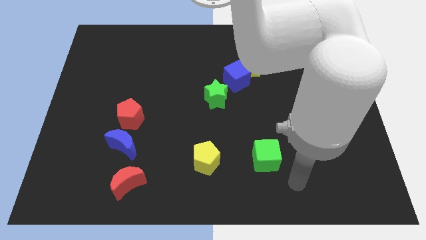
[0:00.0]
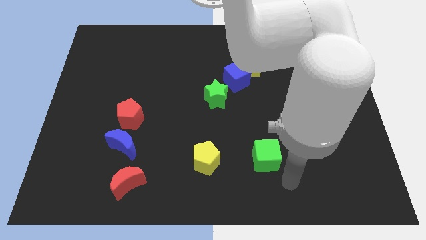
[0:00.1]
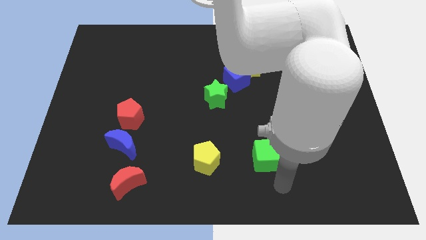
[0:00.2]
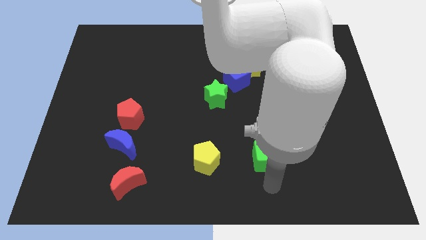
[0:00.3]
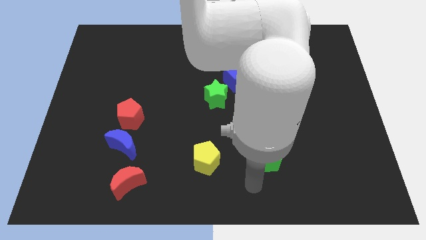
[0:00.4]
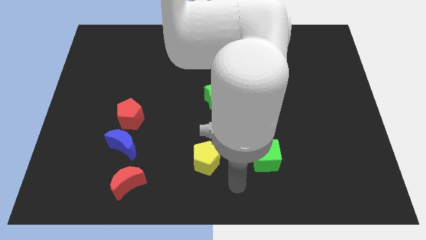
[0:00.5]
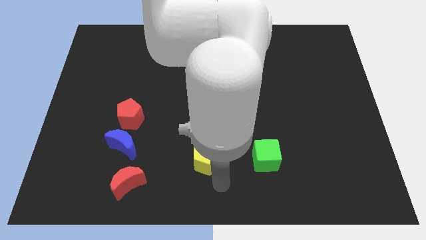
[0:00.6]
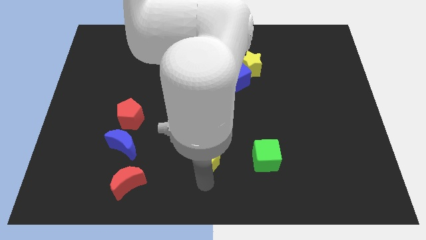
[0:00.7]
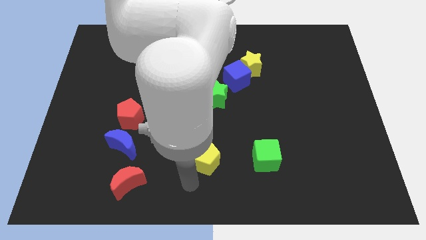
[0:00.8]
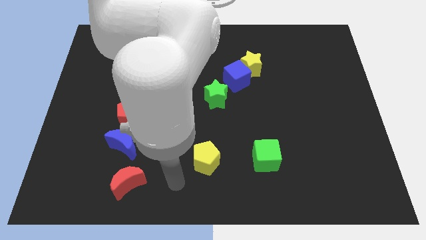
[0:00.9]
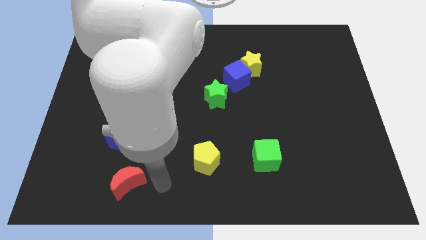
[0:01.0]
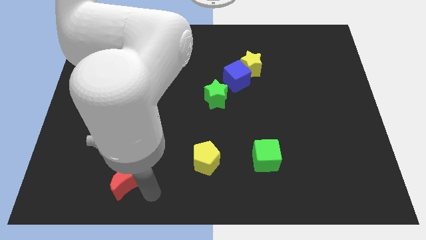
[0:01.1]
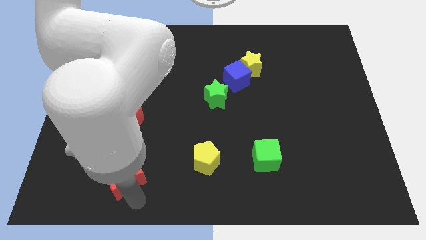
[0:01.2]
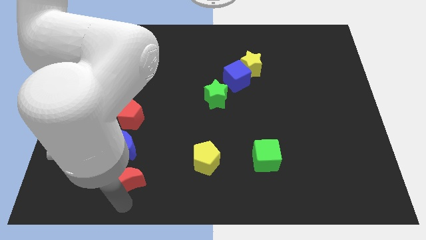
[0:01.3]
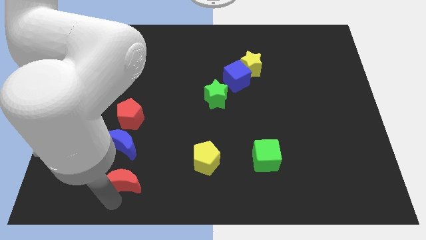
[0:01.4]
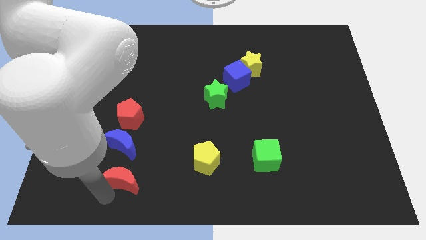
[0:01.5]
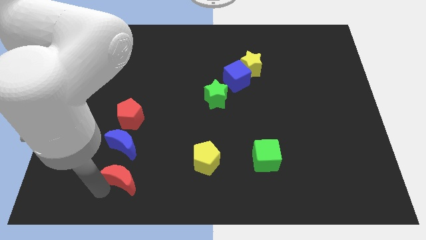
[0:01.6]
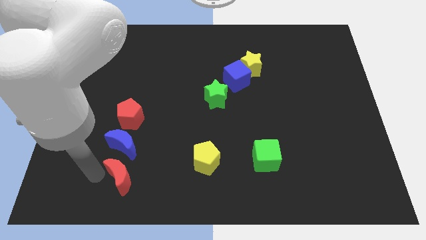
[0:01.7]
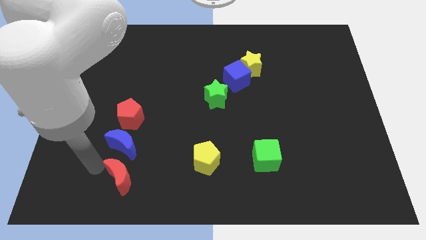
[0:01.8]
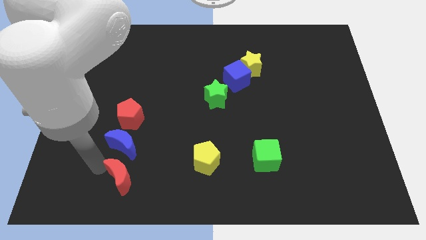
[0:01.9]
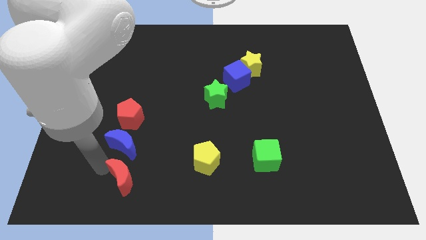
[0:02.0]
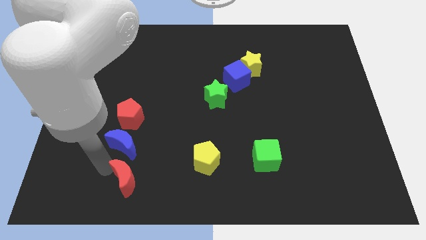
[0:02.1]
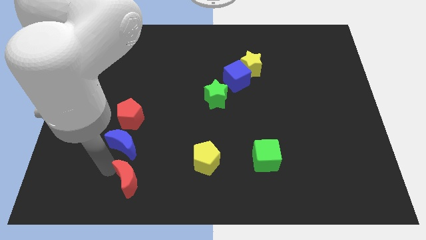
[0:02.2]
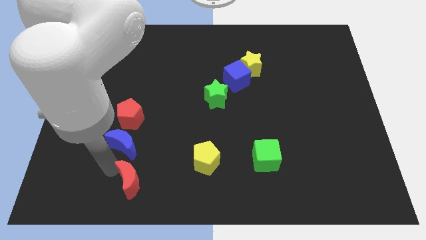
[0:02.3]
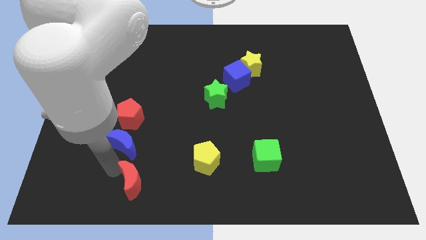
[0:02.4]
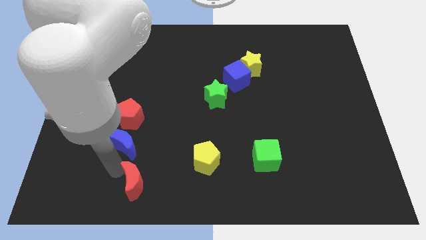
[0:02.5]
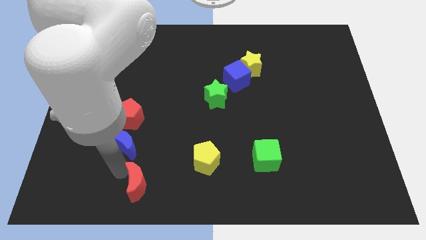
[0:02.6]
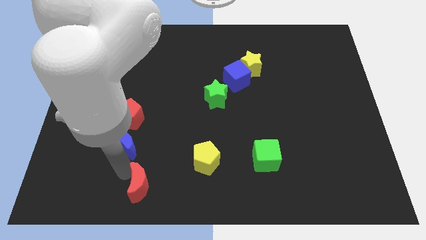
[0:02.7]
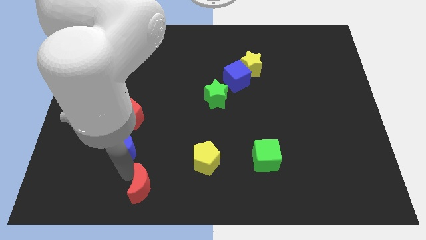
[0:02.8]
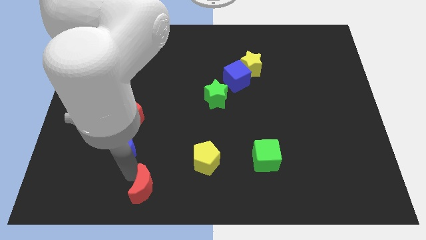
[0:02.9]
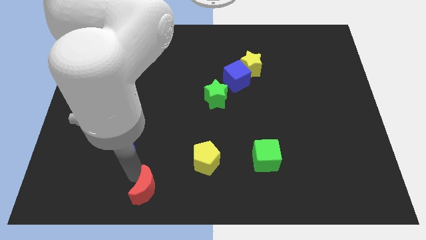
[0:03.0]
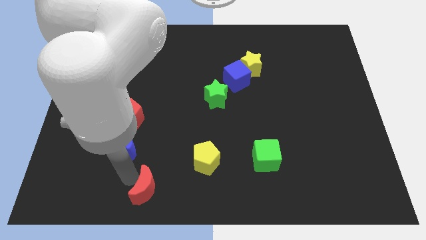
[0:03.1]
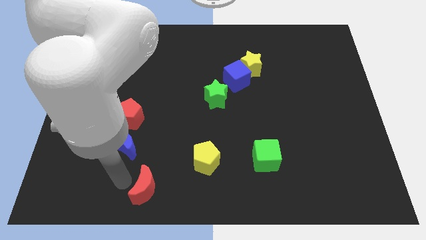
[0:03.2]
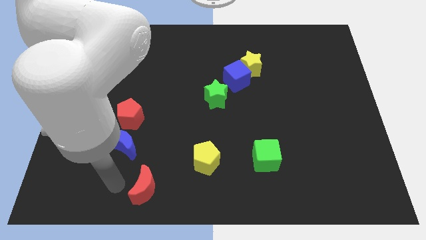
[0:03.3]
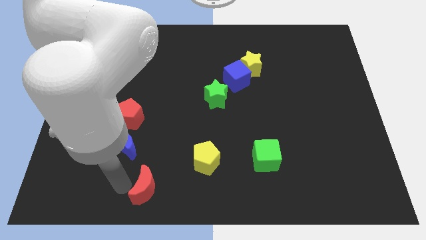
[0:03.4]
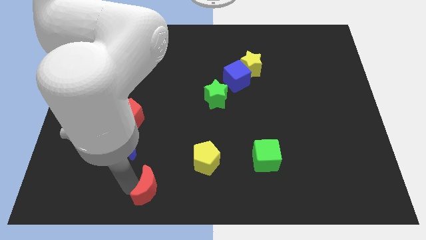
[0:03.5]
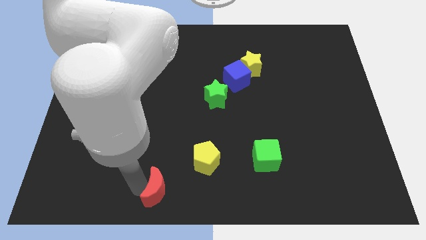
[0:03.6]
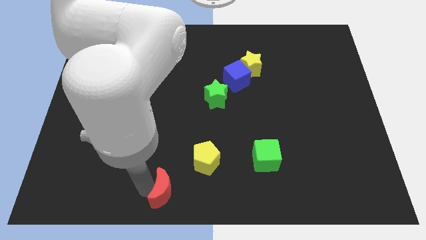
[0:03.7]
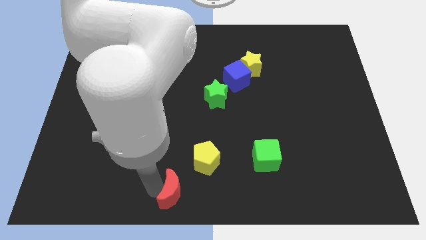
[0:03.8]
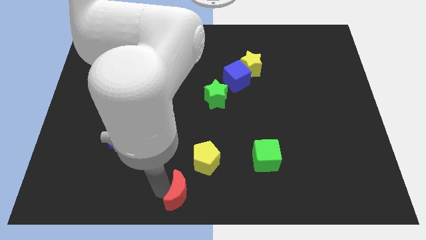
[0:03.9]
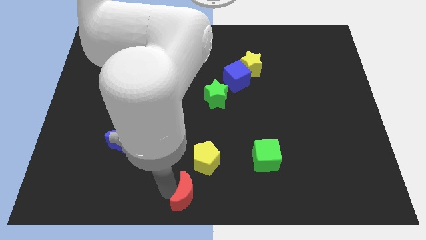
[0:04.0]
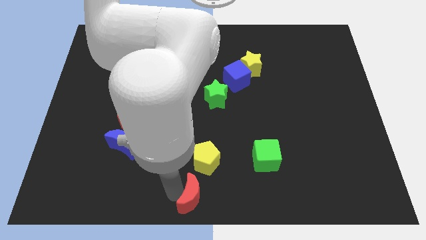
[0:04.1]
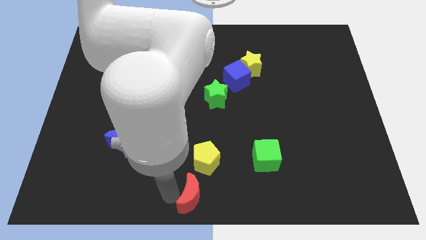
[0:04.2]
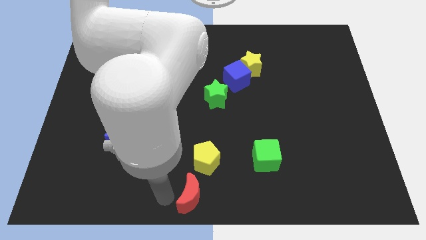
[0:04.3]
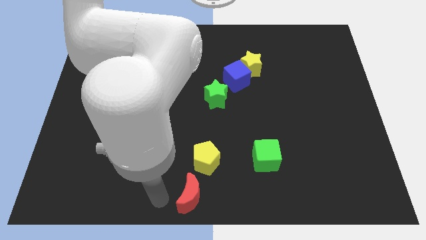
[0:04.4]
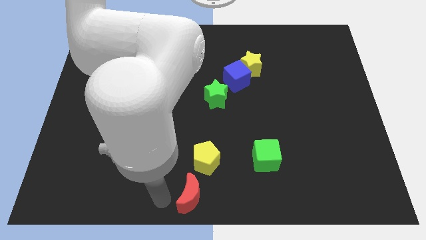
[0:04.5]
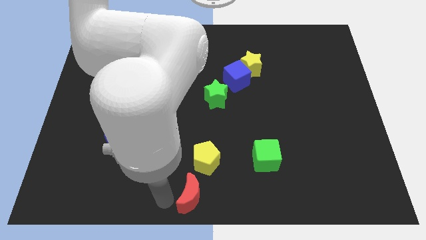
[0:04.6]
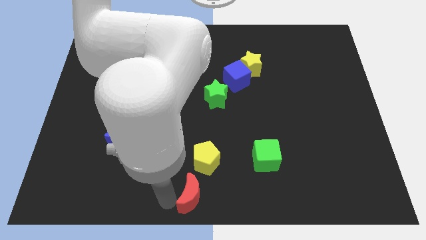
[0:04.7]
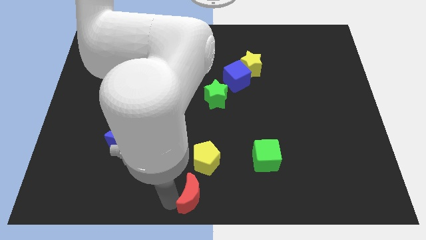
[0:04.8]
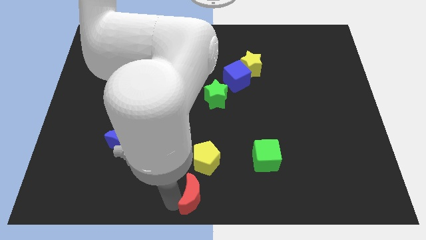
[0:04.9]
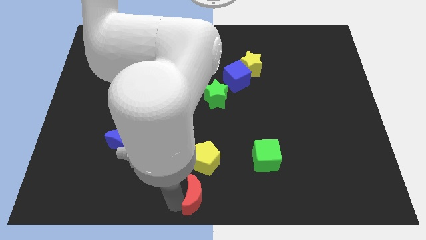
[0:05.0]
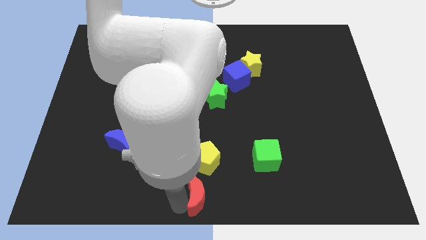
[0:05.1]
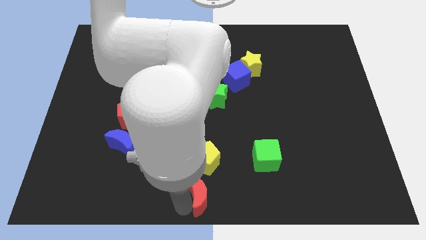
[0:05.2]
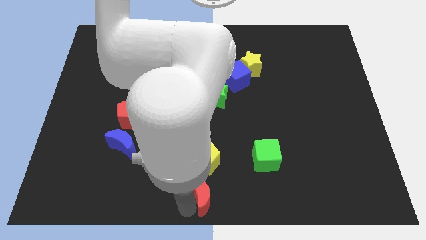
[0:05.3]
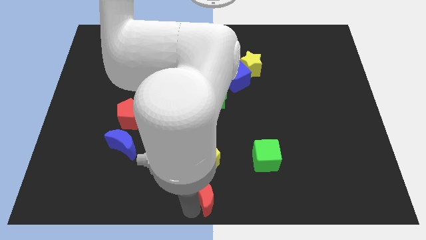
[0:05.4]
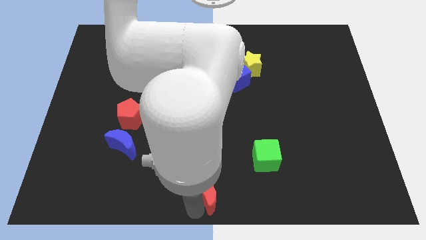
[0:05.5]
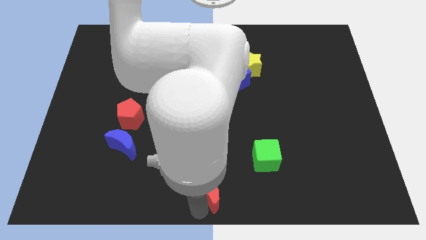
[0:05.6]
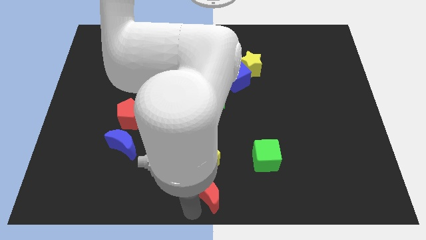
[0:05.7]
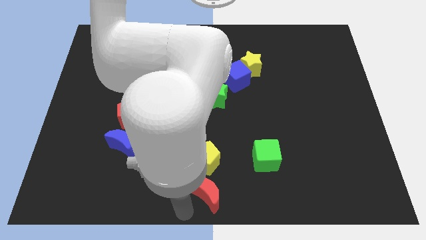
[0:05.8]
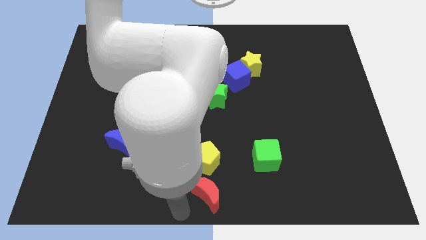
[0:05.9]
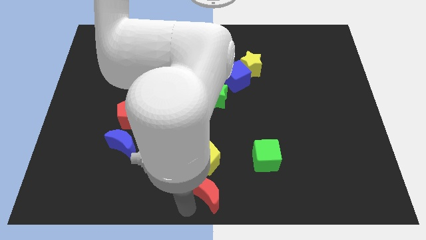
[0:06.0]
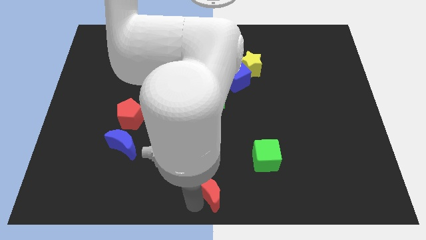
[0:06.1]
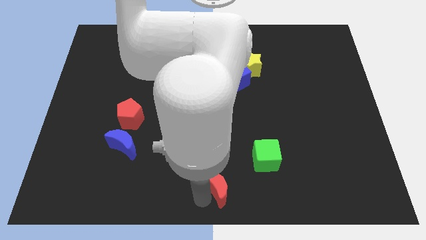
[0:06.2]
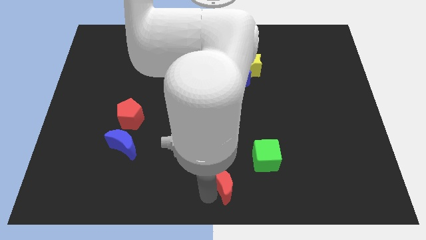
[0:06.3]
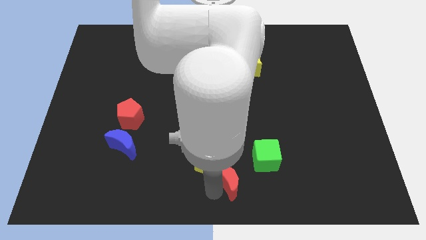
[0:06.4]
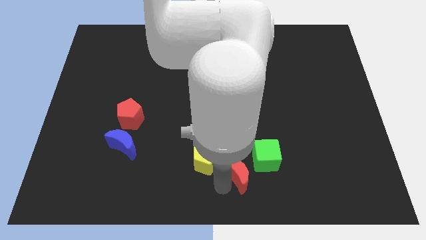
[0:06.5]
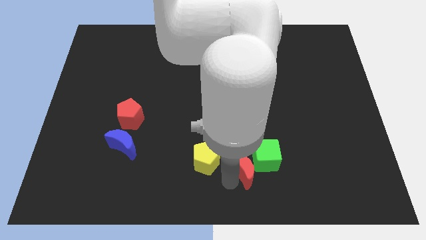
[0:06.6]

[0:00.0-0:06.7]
put the red moon towards the green cube

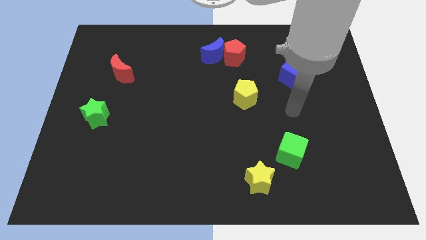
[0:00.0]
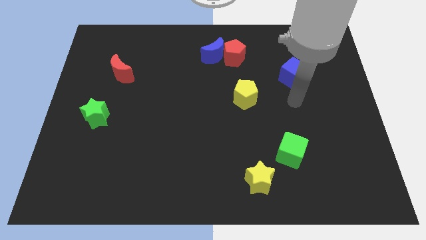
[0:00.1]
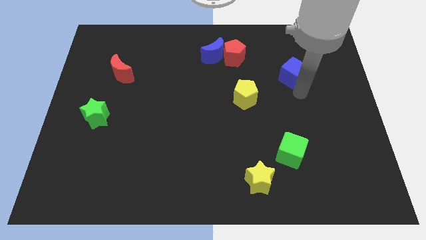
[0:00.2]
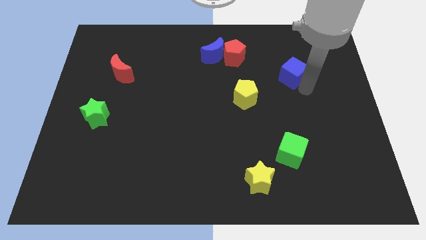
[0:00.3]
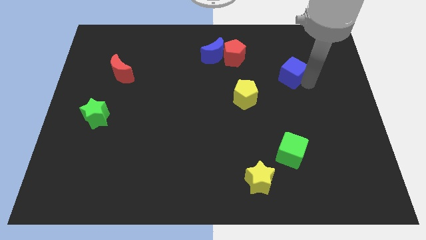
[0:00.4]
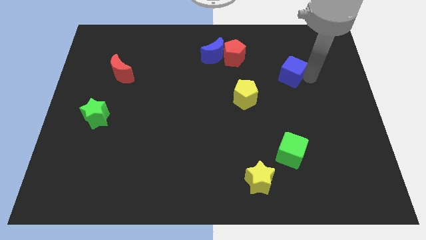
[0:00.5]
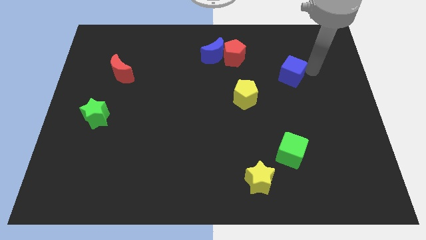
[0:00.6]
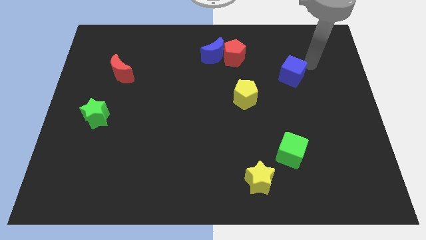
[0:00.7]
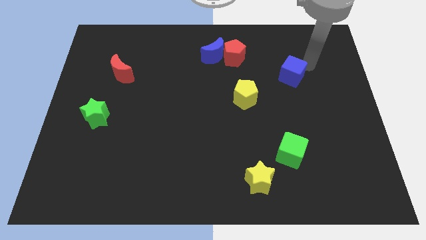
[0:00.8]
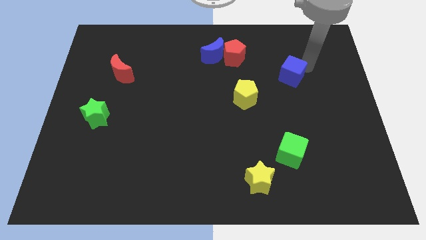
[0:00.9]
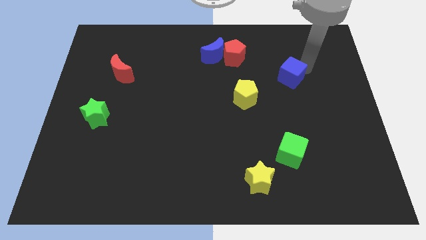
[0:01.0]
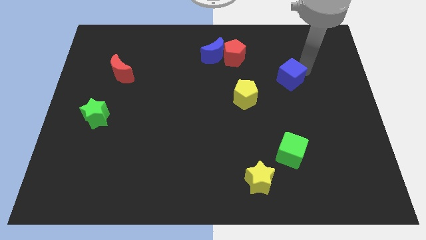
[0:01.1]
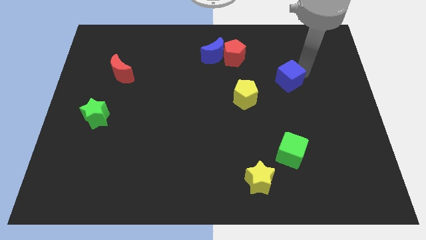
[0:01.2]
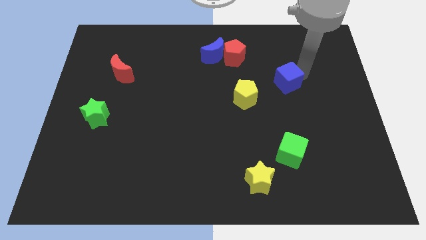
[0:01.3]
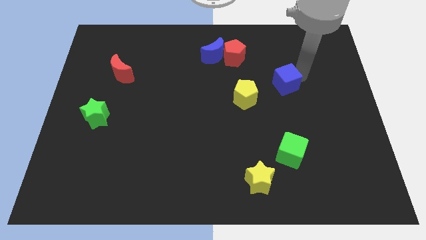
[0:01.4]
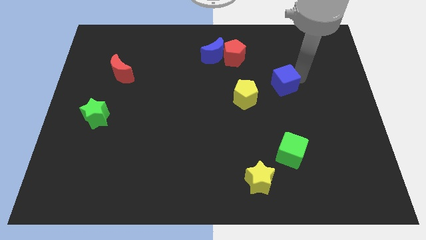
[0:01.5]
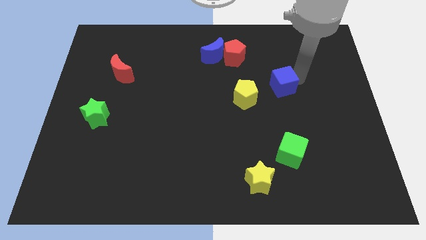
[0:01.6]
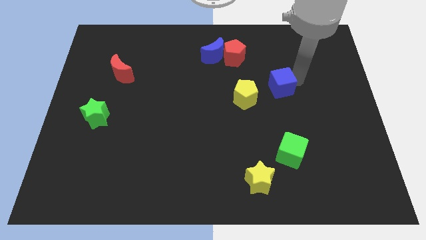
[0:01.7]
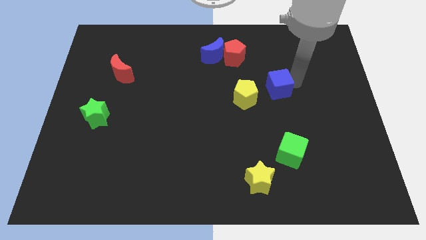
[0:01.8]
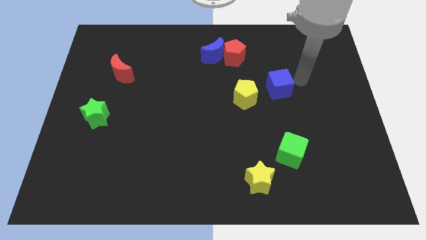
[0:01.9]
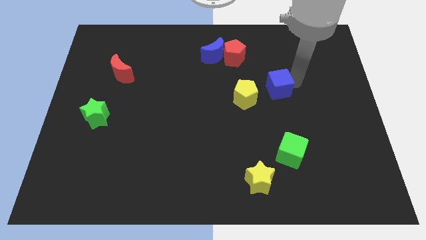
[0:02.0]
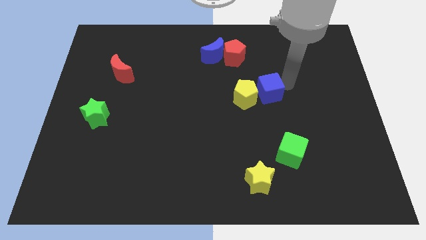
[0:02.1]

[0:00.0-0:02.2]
push the blue cube to the yellow pentagon
